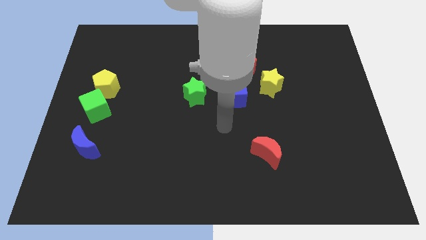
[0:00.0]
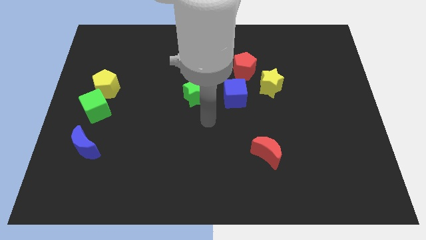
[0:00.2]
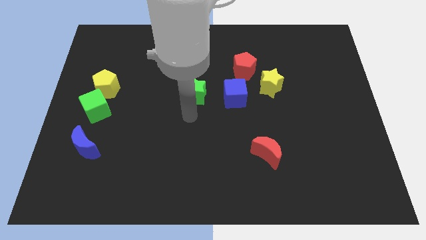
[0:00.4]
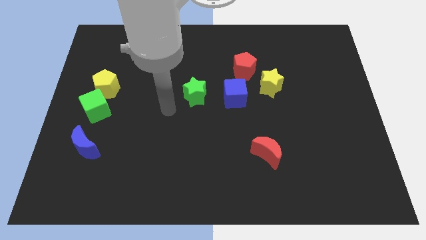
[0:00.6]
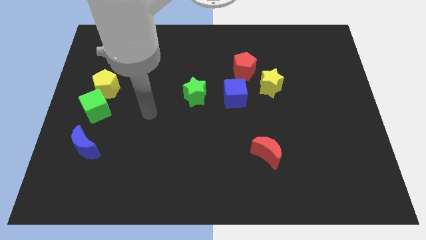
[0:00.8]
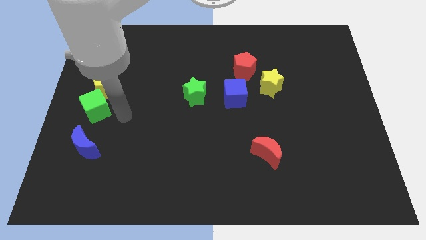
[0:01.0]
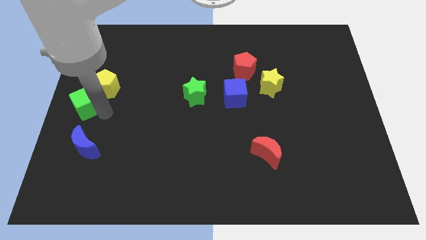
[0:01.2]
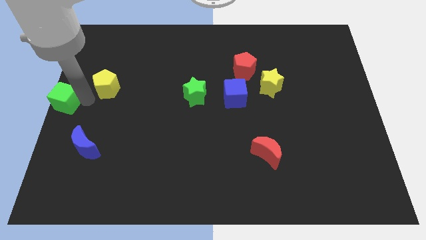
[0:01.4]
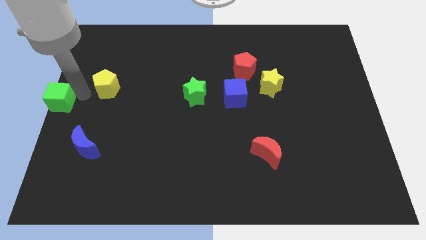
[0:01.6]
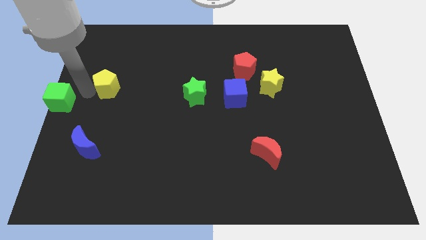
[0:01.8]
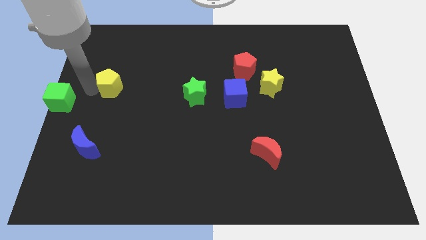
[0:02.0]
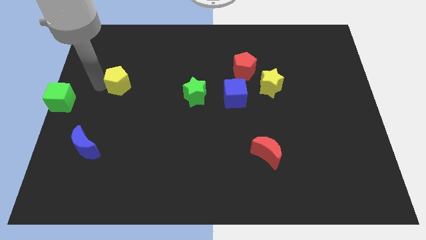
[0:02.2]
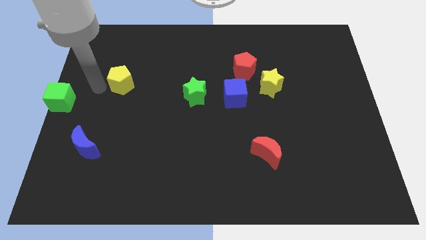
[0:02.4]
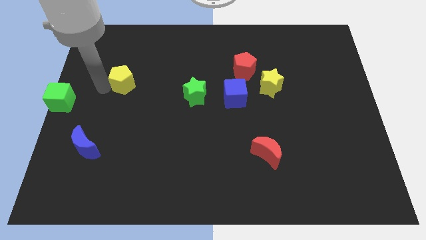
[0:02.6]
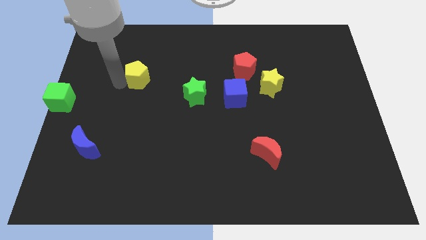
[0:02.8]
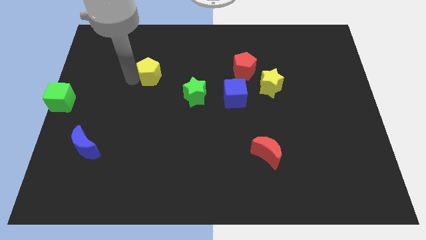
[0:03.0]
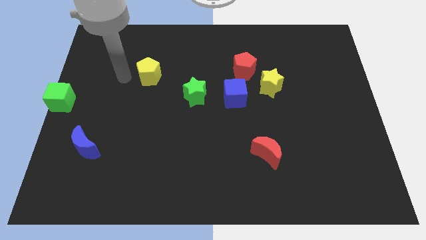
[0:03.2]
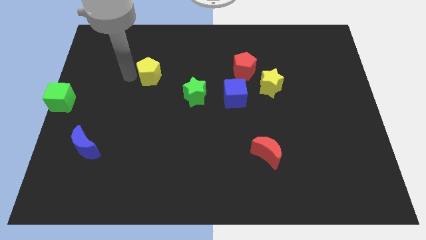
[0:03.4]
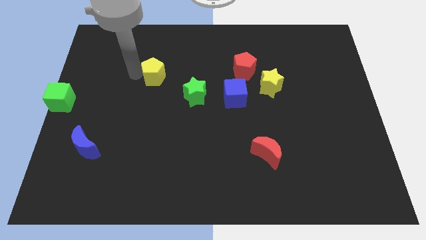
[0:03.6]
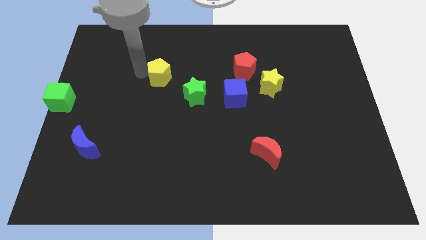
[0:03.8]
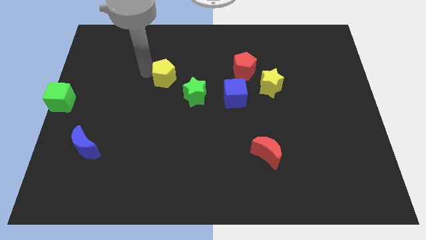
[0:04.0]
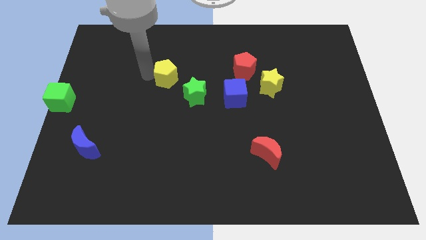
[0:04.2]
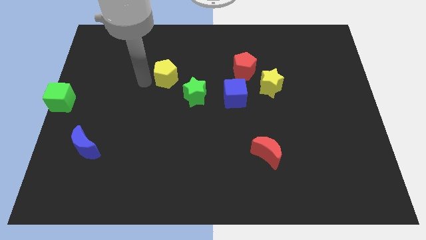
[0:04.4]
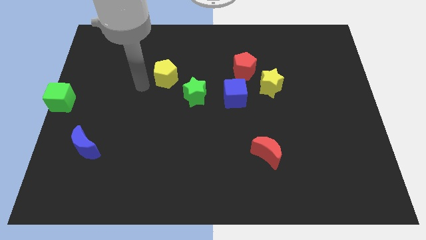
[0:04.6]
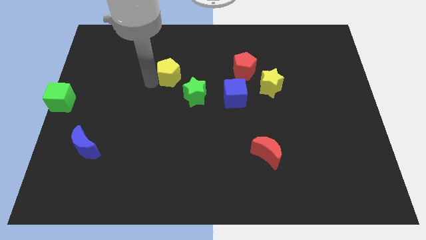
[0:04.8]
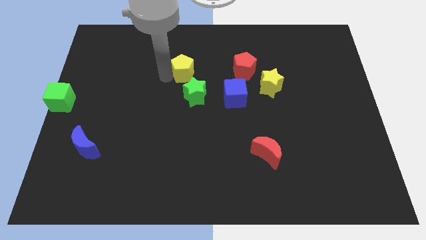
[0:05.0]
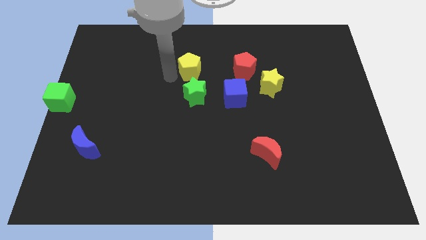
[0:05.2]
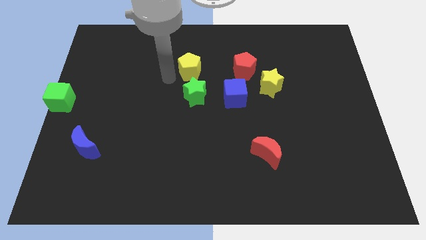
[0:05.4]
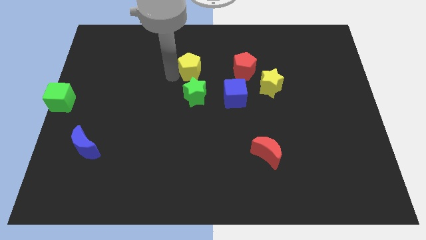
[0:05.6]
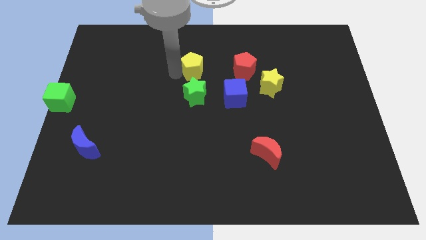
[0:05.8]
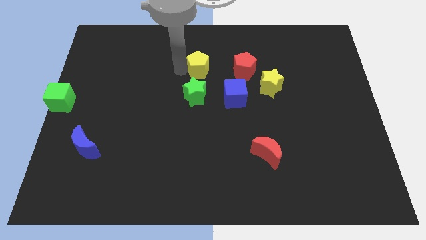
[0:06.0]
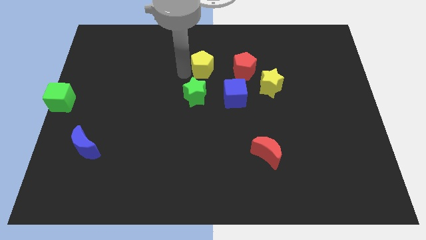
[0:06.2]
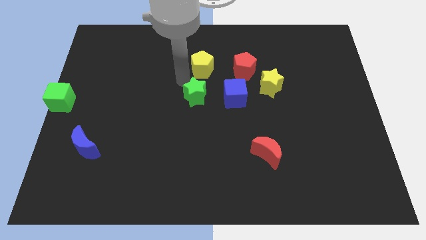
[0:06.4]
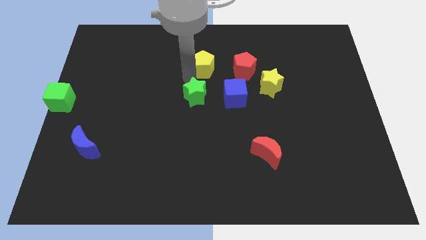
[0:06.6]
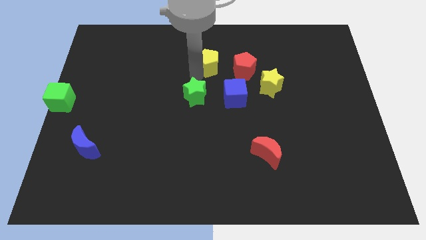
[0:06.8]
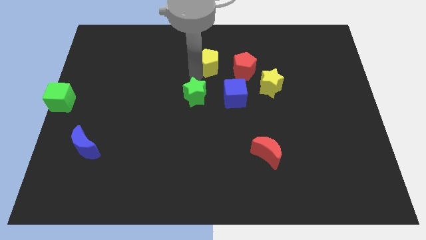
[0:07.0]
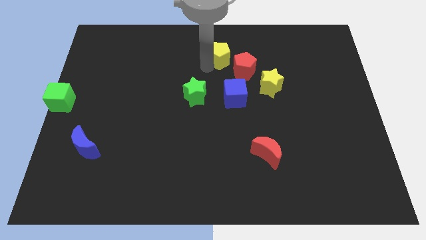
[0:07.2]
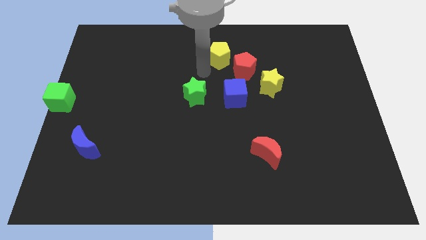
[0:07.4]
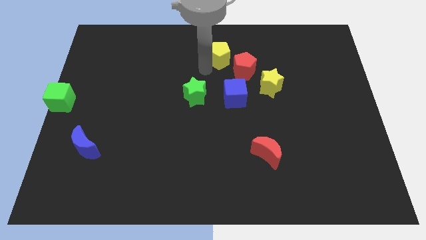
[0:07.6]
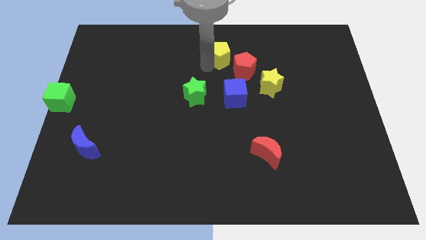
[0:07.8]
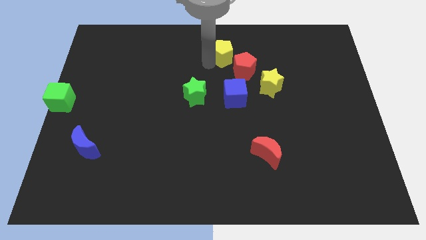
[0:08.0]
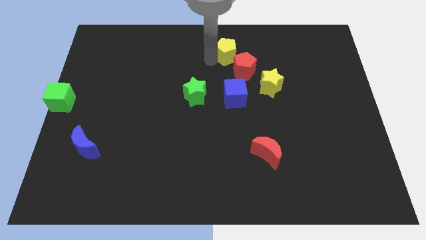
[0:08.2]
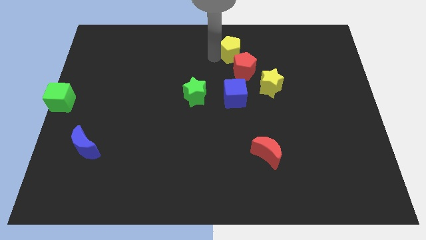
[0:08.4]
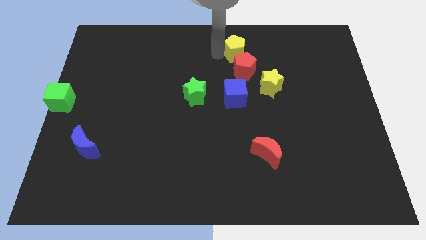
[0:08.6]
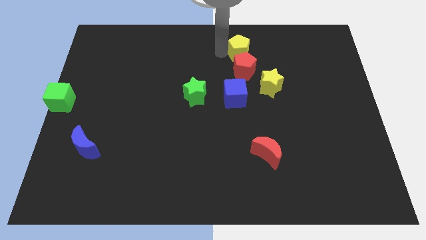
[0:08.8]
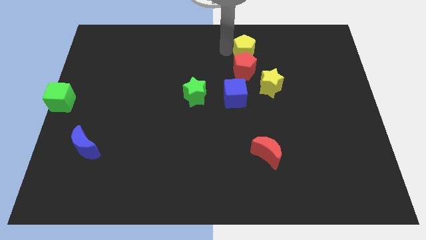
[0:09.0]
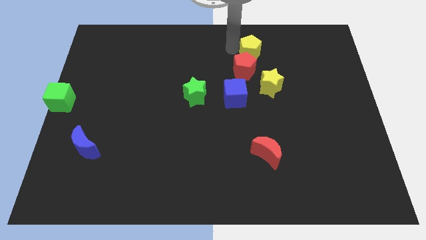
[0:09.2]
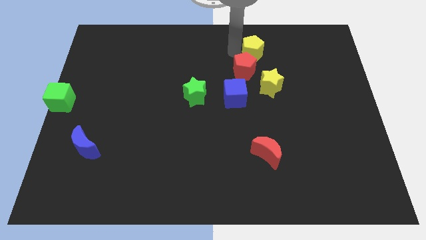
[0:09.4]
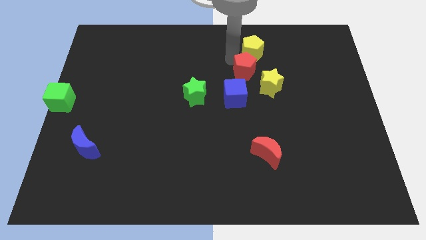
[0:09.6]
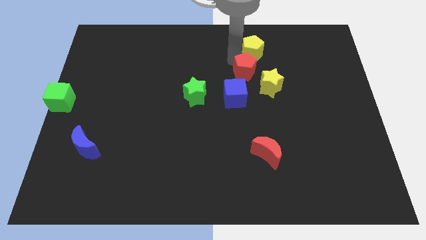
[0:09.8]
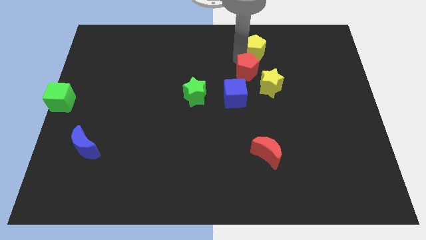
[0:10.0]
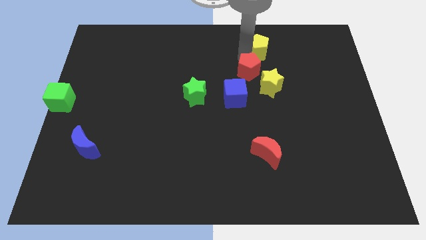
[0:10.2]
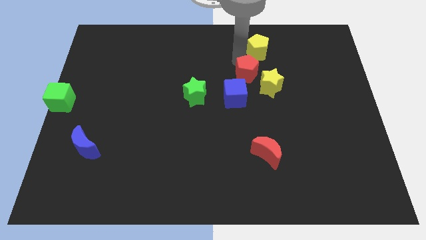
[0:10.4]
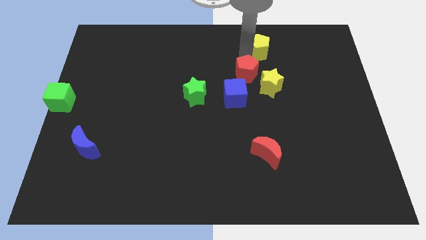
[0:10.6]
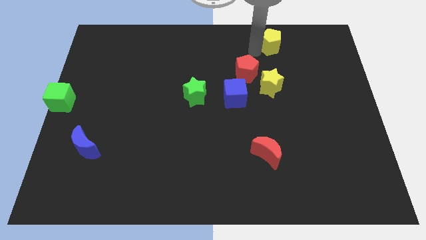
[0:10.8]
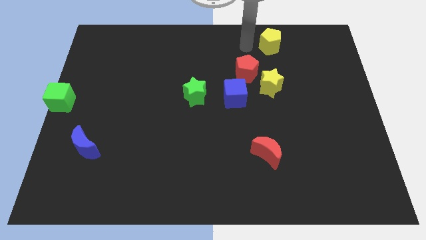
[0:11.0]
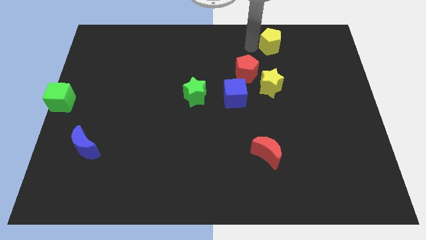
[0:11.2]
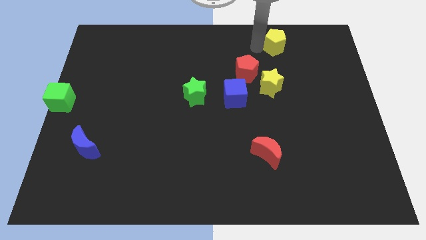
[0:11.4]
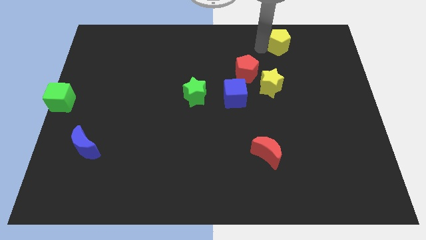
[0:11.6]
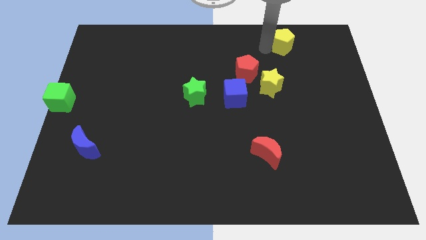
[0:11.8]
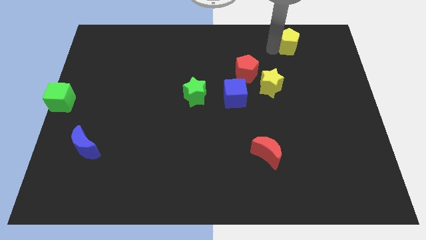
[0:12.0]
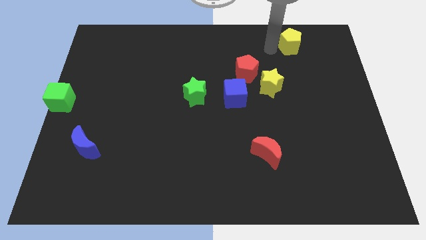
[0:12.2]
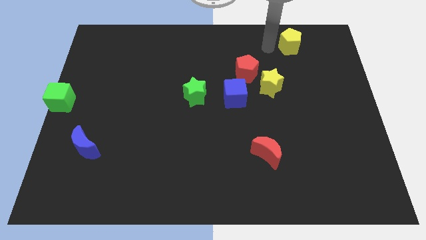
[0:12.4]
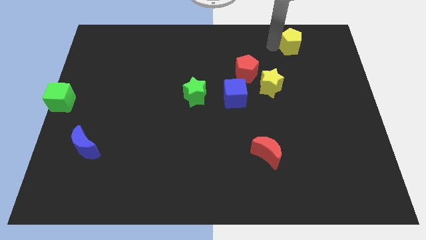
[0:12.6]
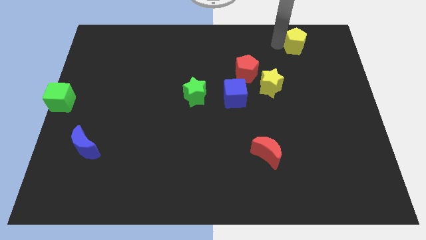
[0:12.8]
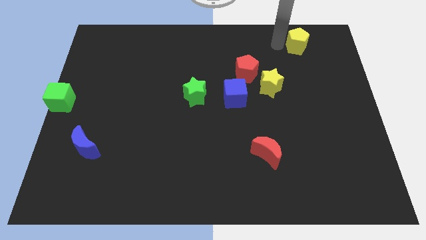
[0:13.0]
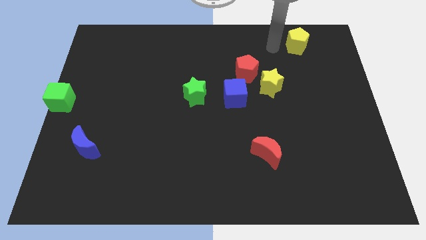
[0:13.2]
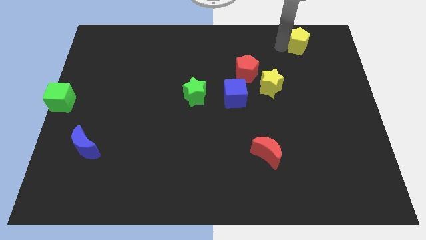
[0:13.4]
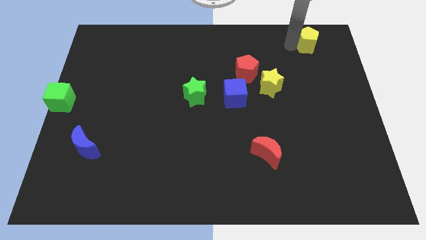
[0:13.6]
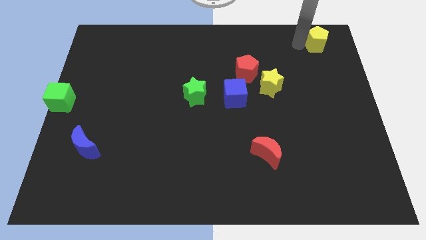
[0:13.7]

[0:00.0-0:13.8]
push the yellow pentagon to the top right corner
